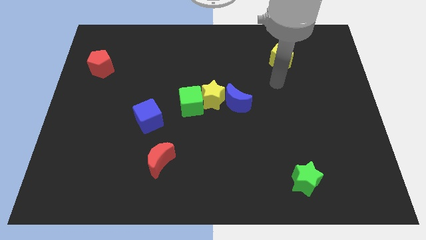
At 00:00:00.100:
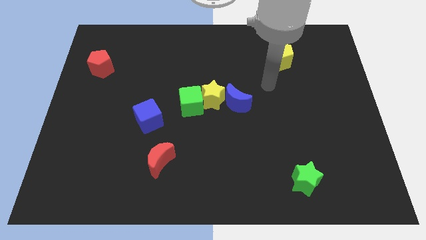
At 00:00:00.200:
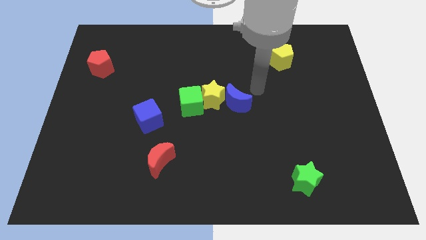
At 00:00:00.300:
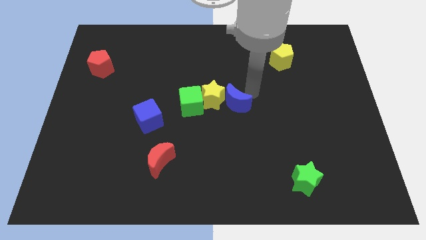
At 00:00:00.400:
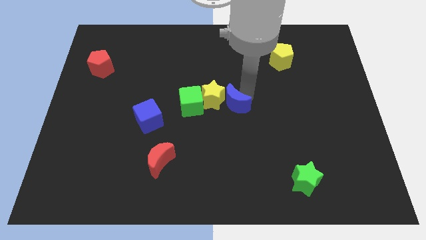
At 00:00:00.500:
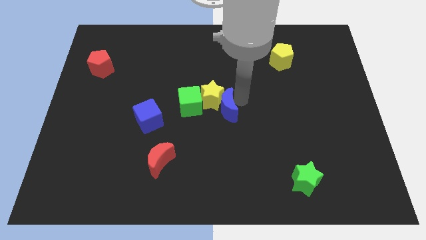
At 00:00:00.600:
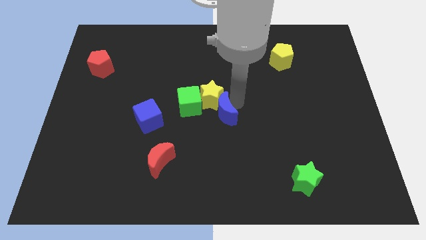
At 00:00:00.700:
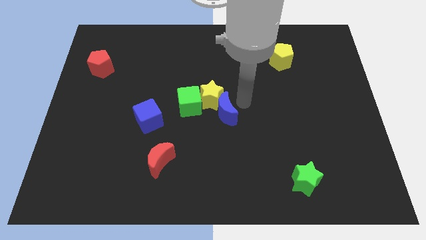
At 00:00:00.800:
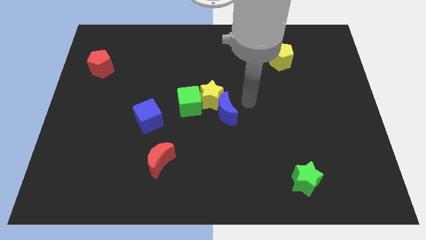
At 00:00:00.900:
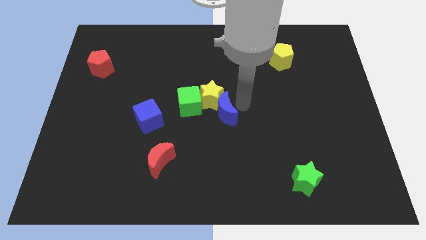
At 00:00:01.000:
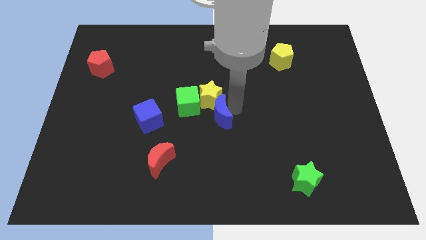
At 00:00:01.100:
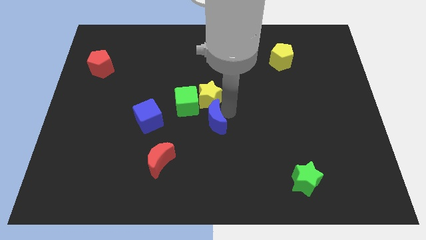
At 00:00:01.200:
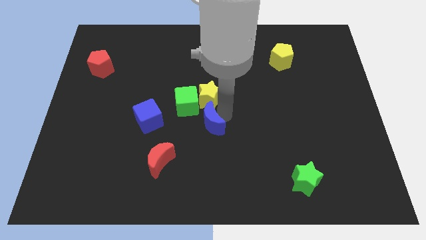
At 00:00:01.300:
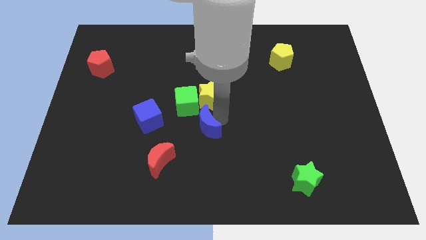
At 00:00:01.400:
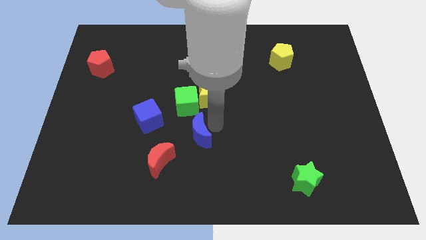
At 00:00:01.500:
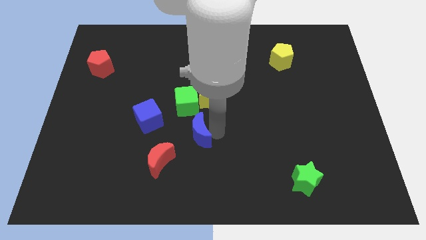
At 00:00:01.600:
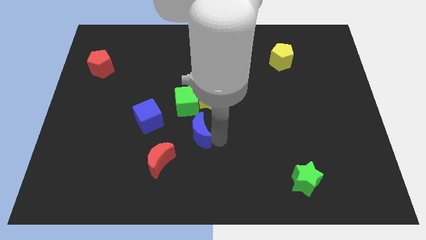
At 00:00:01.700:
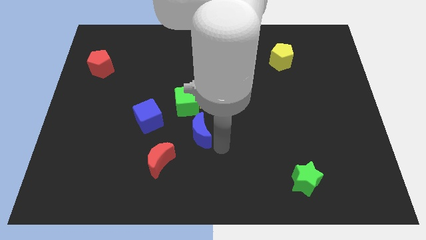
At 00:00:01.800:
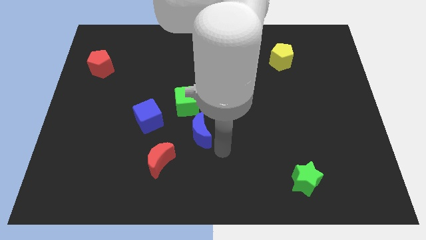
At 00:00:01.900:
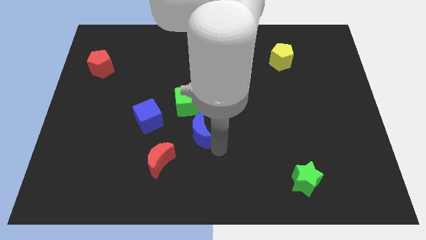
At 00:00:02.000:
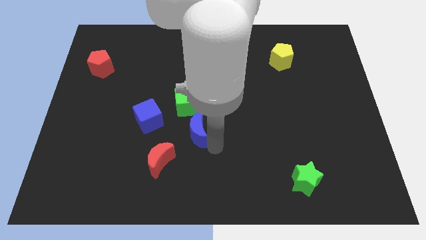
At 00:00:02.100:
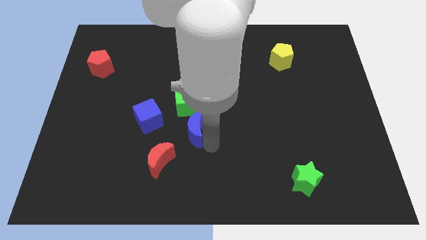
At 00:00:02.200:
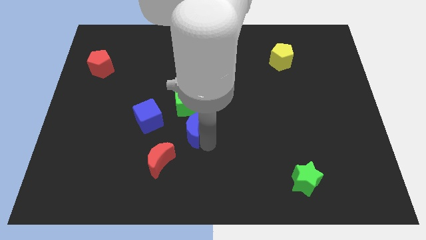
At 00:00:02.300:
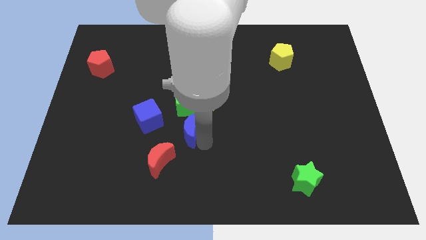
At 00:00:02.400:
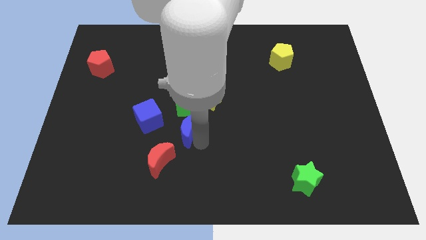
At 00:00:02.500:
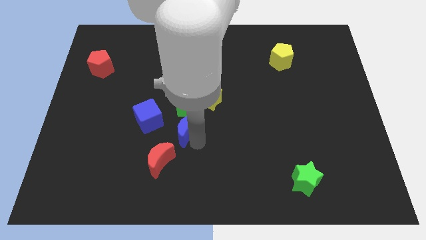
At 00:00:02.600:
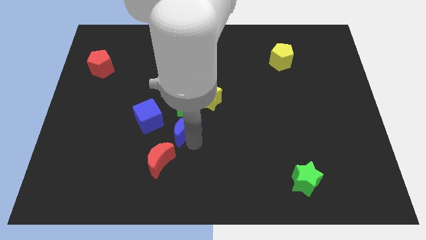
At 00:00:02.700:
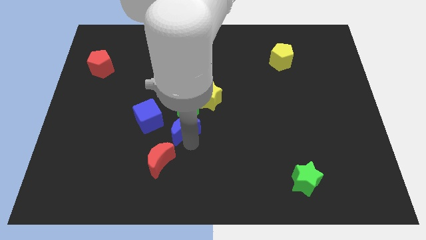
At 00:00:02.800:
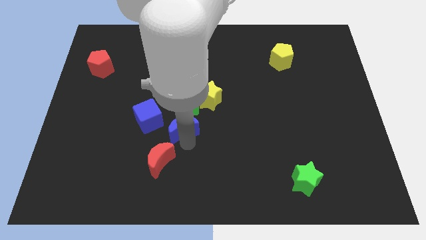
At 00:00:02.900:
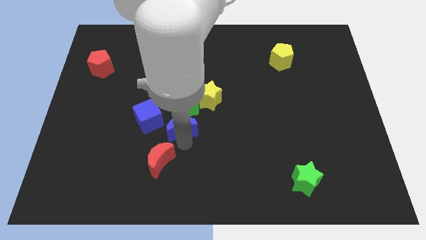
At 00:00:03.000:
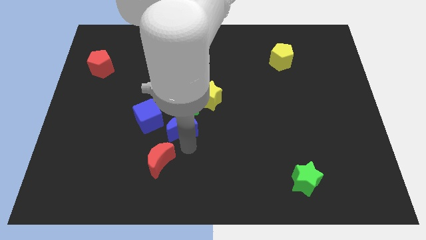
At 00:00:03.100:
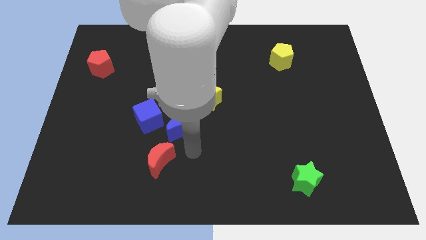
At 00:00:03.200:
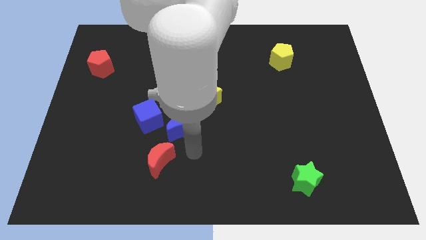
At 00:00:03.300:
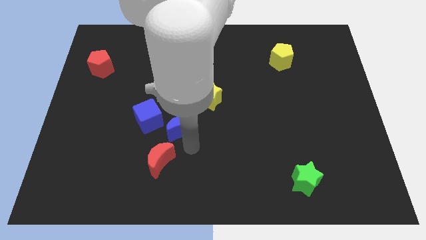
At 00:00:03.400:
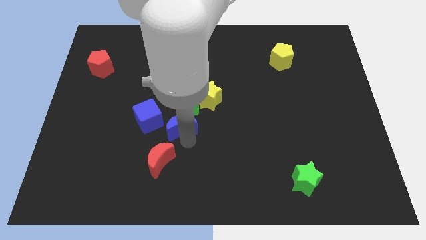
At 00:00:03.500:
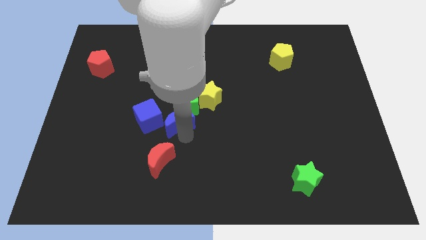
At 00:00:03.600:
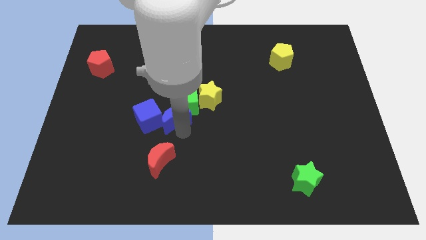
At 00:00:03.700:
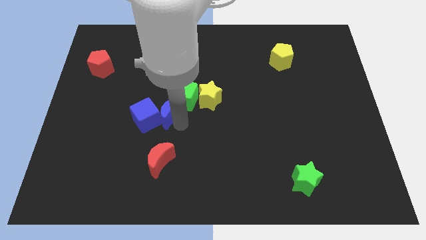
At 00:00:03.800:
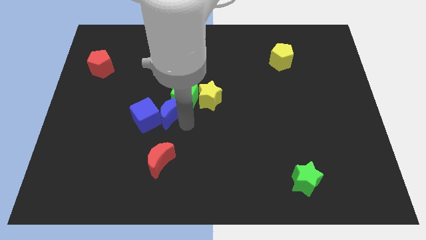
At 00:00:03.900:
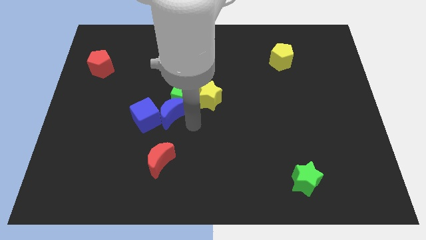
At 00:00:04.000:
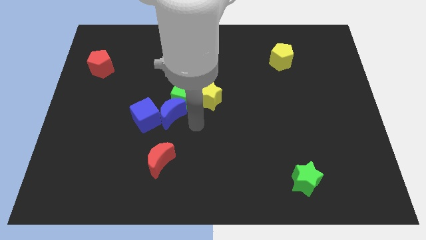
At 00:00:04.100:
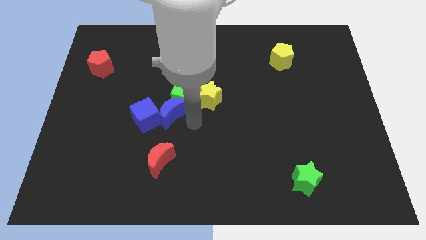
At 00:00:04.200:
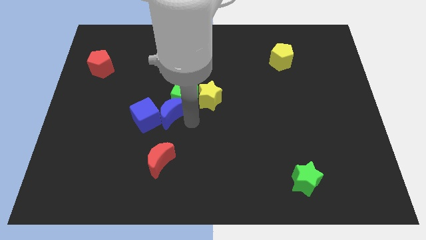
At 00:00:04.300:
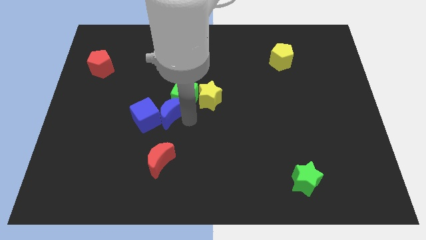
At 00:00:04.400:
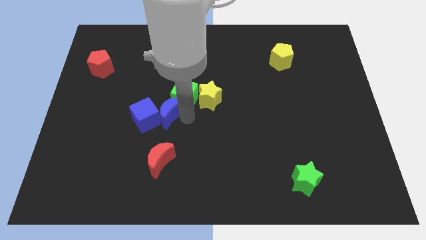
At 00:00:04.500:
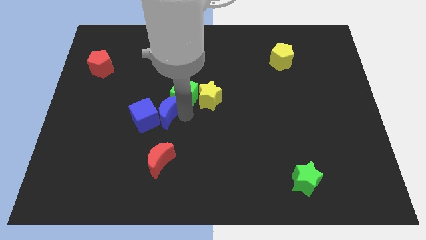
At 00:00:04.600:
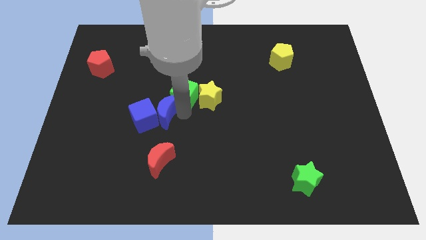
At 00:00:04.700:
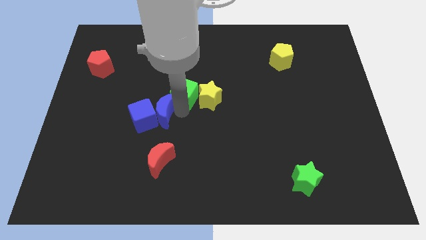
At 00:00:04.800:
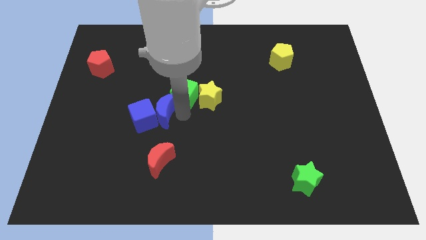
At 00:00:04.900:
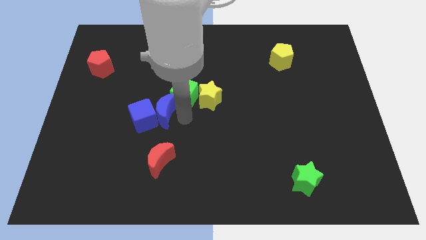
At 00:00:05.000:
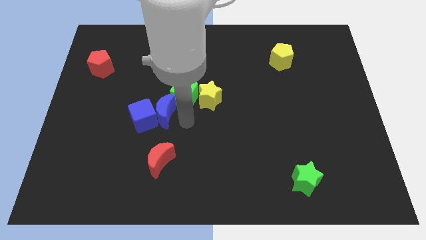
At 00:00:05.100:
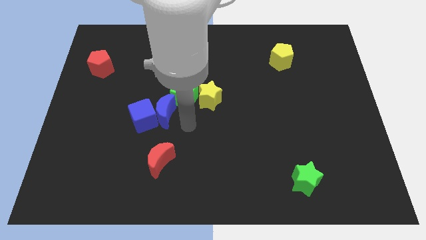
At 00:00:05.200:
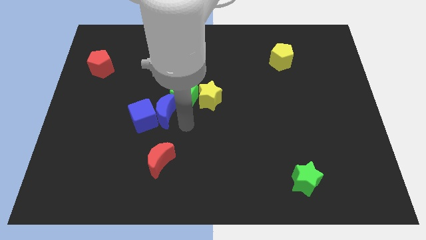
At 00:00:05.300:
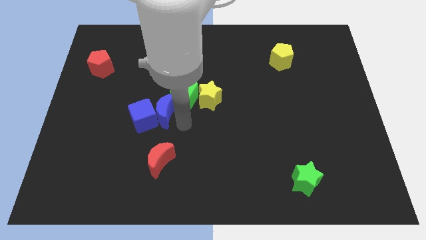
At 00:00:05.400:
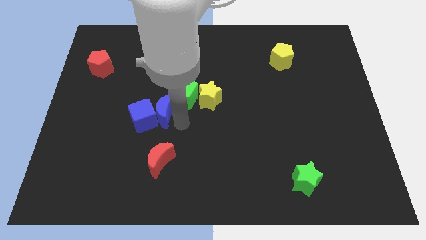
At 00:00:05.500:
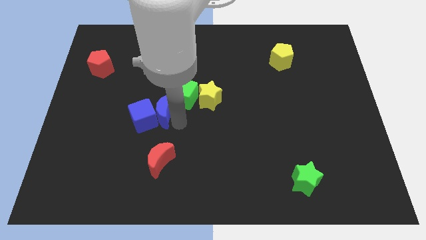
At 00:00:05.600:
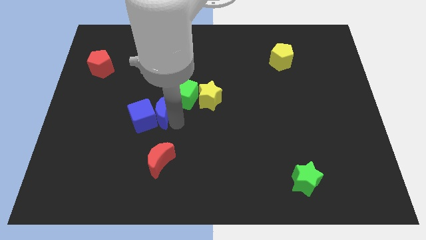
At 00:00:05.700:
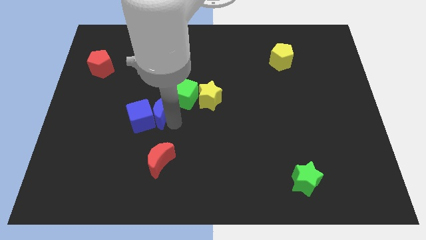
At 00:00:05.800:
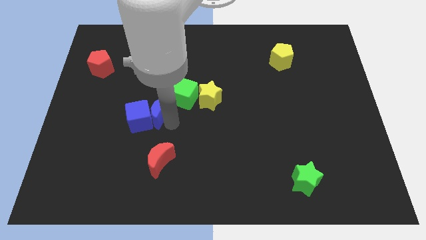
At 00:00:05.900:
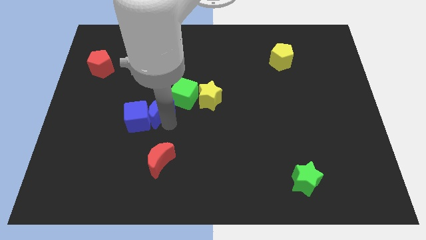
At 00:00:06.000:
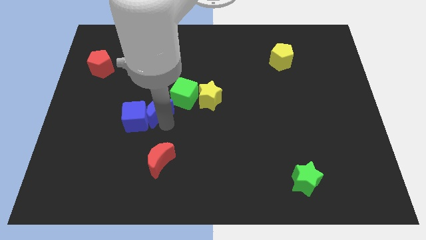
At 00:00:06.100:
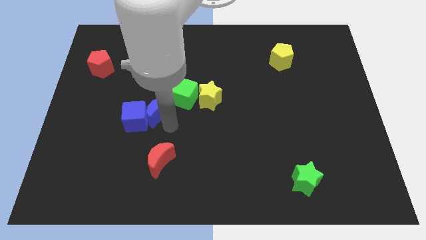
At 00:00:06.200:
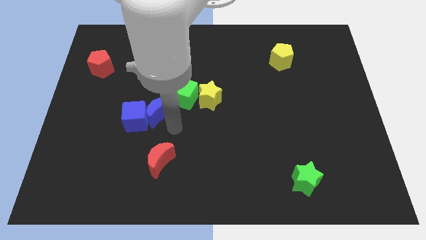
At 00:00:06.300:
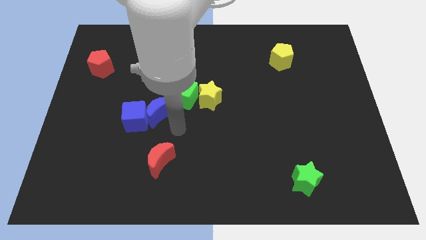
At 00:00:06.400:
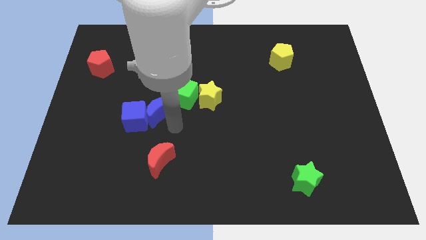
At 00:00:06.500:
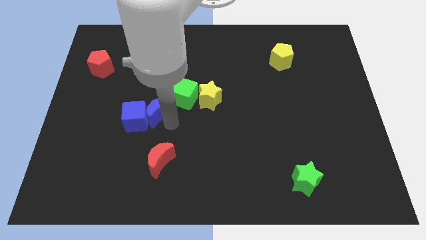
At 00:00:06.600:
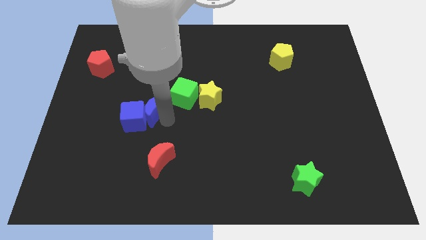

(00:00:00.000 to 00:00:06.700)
move the blue moon left of the green cube

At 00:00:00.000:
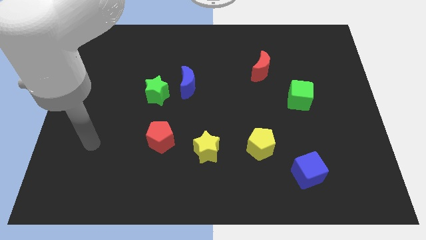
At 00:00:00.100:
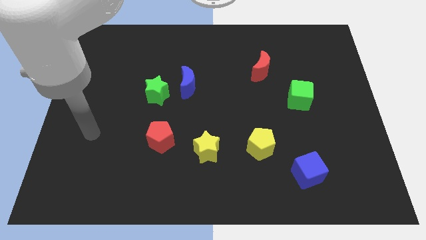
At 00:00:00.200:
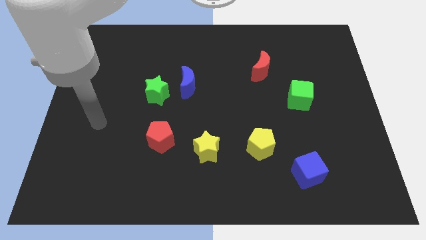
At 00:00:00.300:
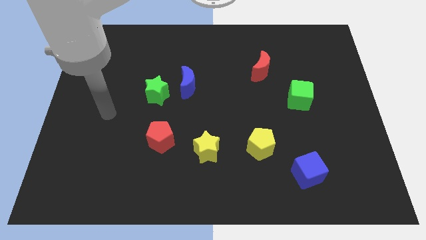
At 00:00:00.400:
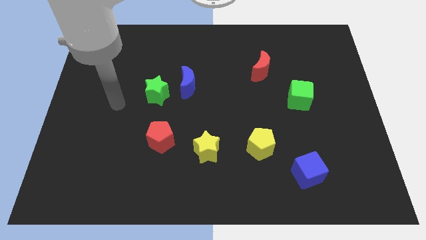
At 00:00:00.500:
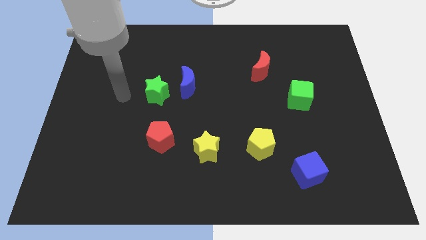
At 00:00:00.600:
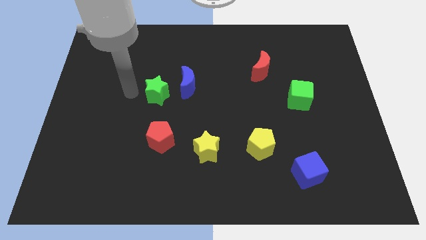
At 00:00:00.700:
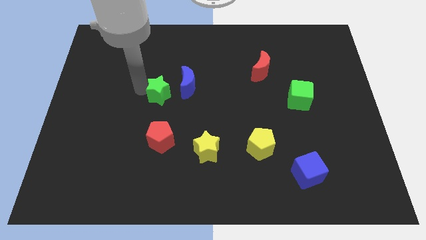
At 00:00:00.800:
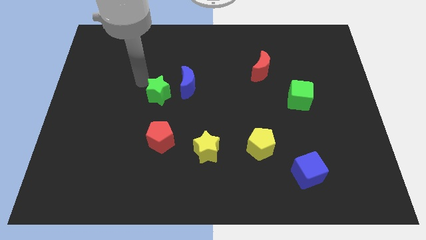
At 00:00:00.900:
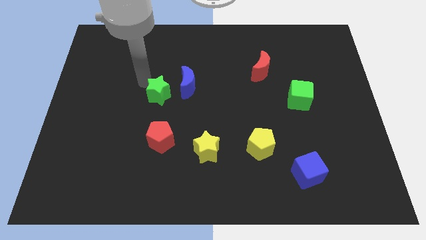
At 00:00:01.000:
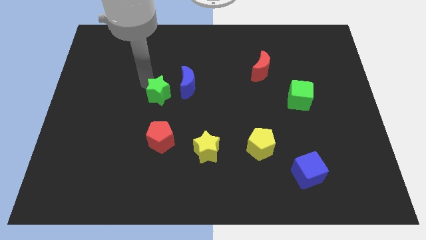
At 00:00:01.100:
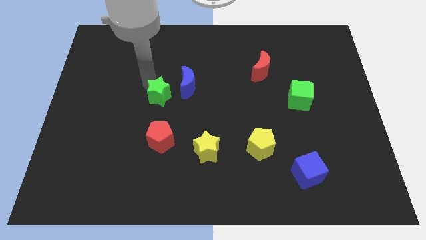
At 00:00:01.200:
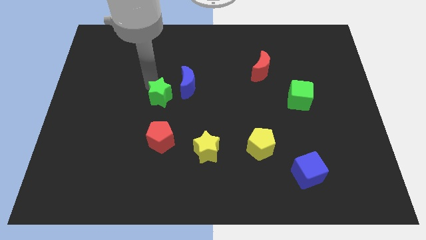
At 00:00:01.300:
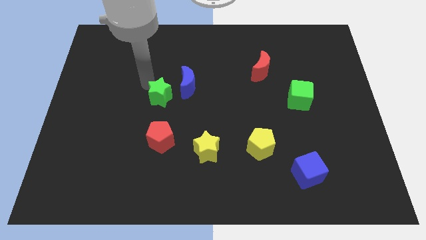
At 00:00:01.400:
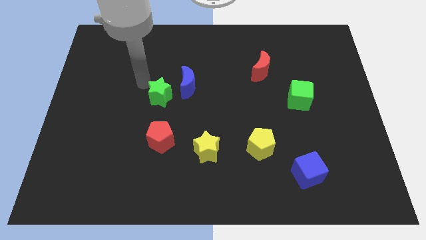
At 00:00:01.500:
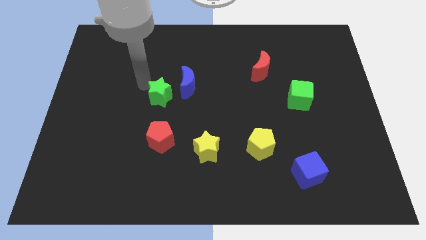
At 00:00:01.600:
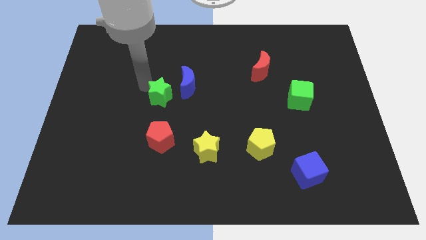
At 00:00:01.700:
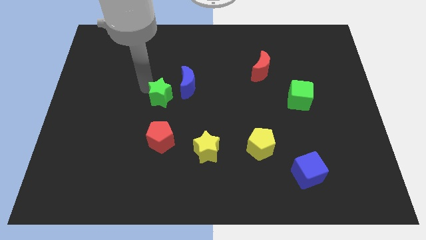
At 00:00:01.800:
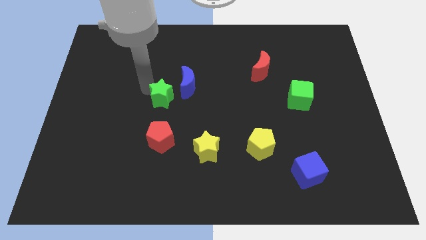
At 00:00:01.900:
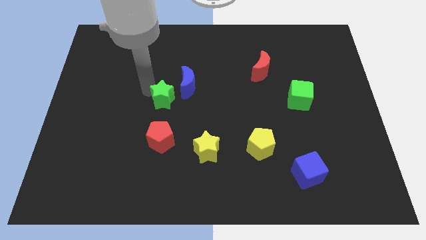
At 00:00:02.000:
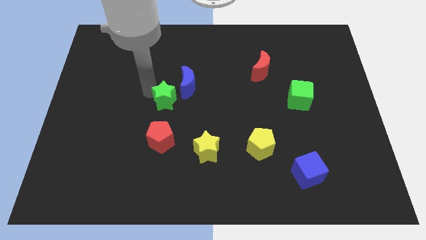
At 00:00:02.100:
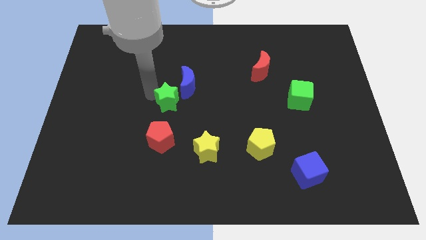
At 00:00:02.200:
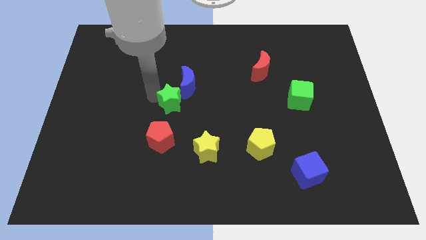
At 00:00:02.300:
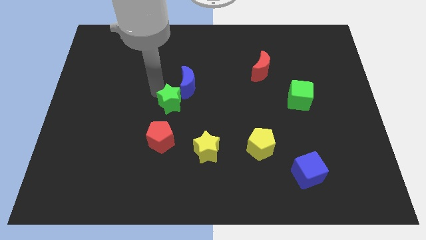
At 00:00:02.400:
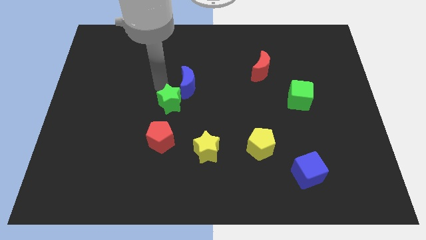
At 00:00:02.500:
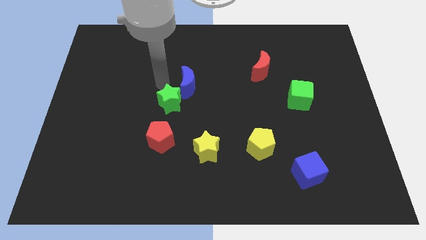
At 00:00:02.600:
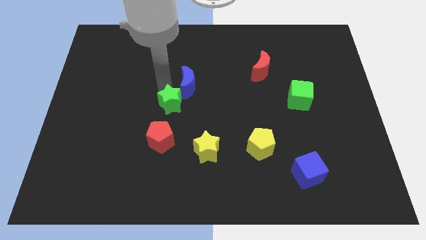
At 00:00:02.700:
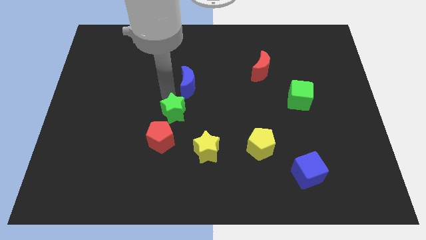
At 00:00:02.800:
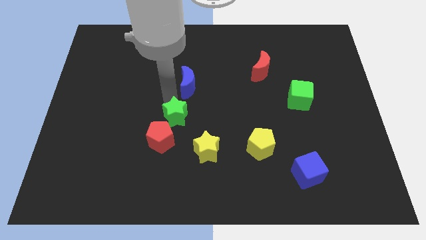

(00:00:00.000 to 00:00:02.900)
put the green star to the top left side of the yellow star
